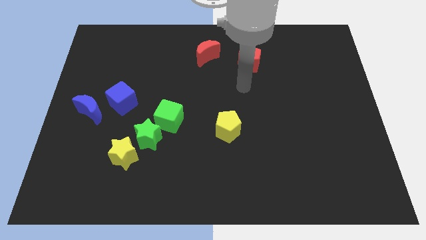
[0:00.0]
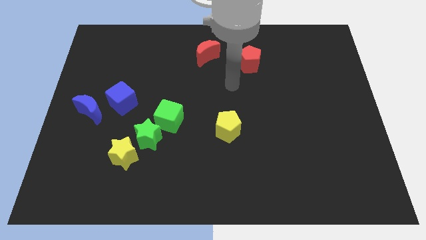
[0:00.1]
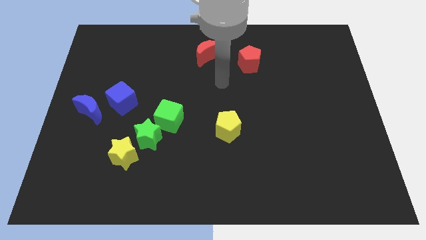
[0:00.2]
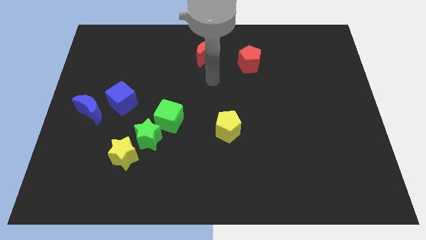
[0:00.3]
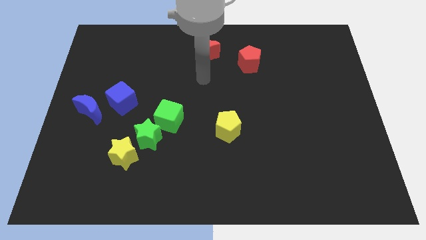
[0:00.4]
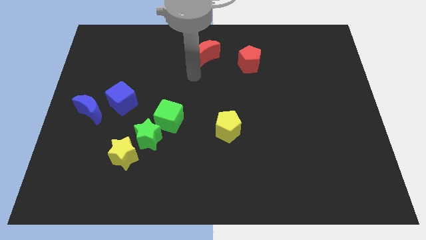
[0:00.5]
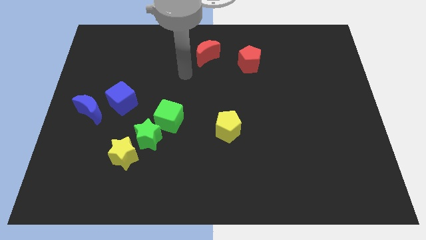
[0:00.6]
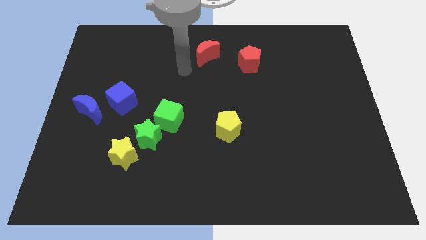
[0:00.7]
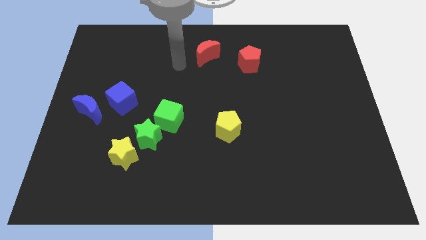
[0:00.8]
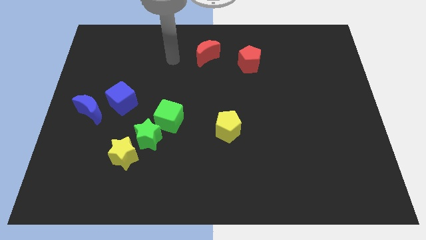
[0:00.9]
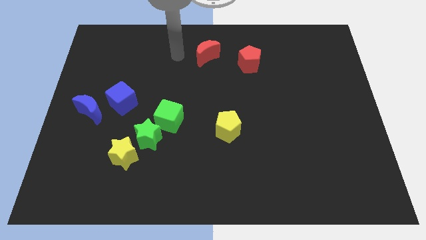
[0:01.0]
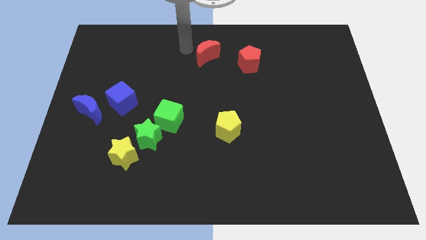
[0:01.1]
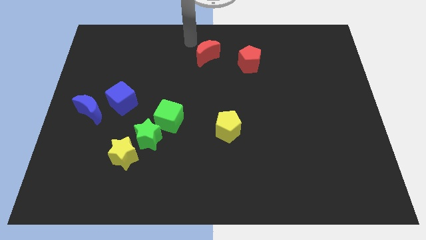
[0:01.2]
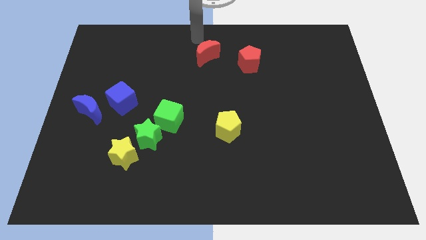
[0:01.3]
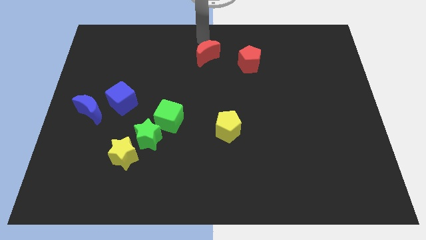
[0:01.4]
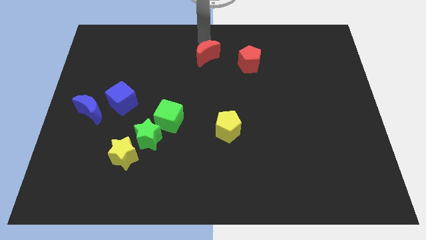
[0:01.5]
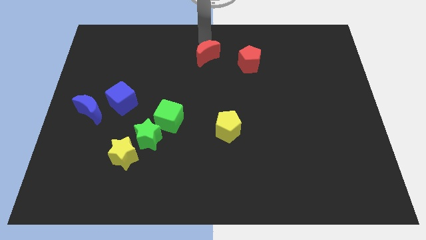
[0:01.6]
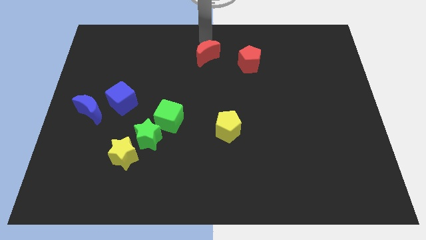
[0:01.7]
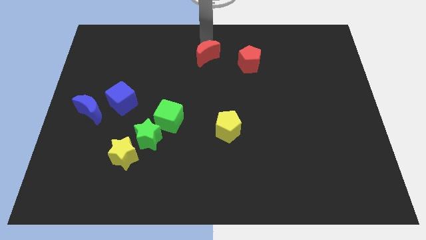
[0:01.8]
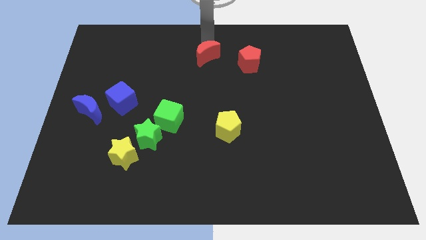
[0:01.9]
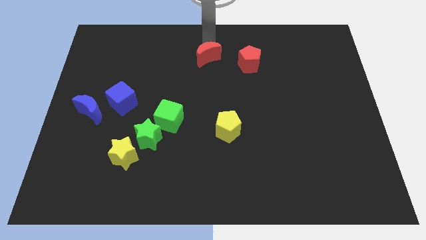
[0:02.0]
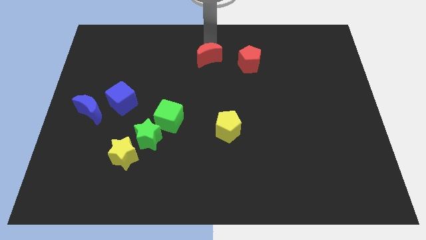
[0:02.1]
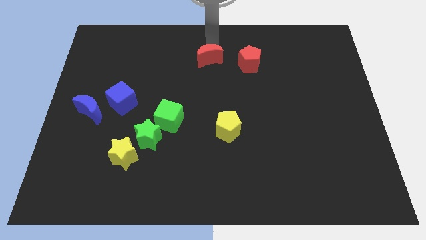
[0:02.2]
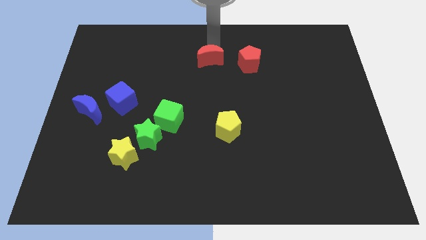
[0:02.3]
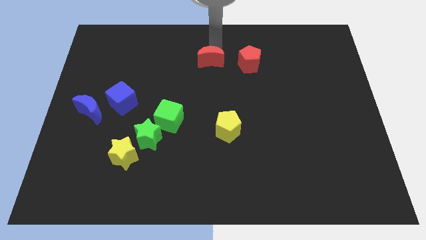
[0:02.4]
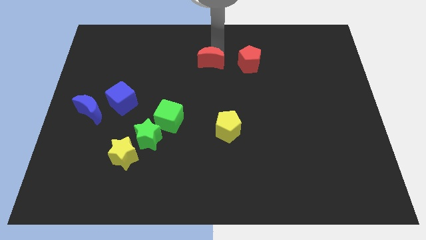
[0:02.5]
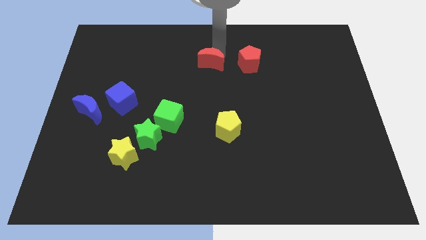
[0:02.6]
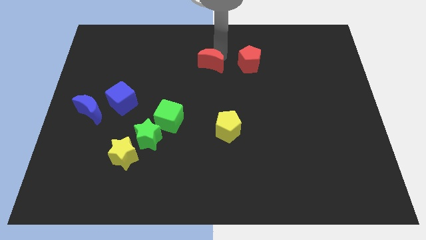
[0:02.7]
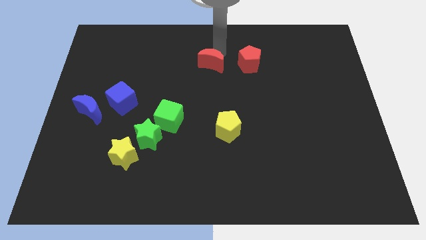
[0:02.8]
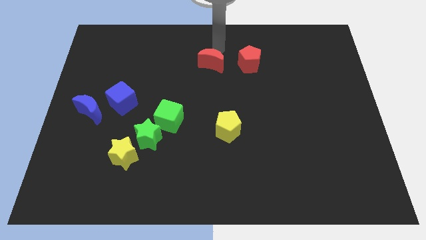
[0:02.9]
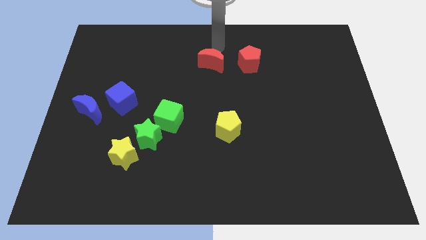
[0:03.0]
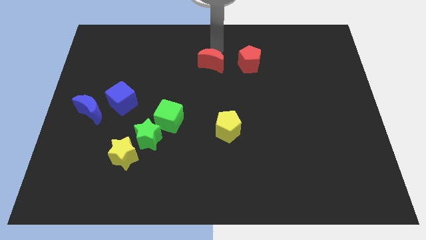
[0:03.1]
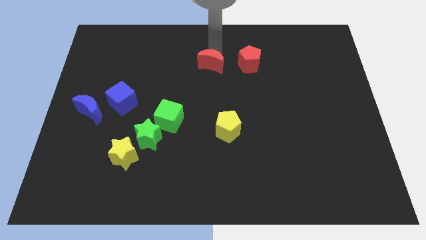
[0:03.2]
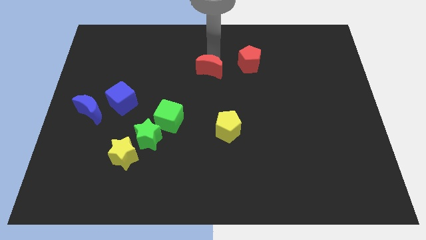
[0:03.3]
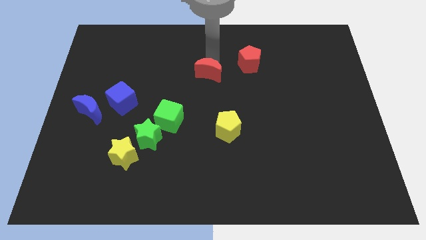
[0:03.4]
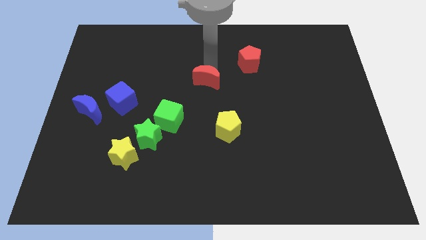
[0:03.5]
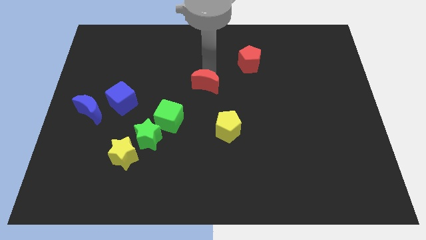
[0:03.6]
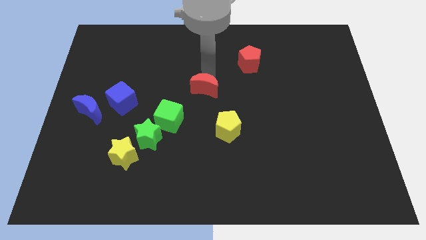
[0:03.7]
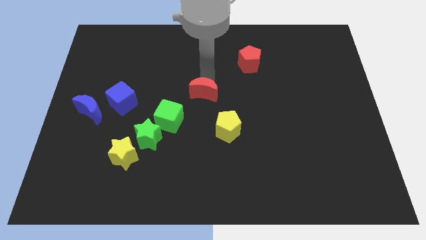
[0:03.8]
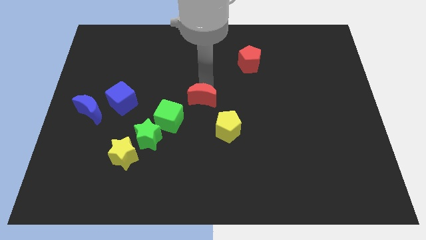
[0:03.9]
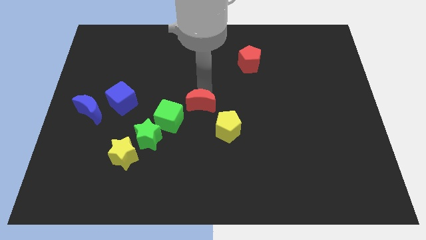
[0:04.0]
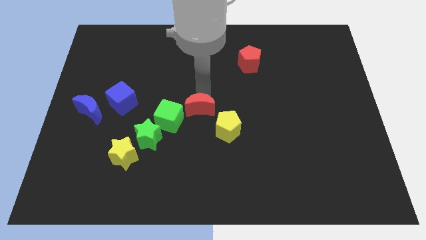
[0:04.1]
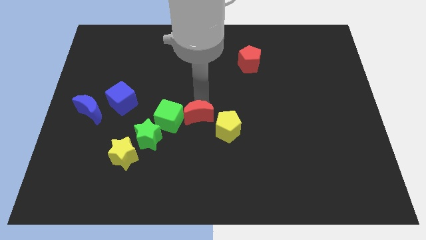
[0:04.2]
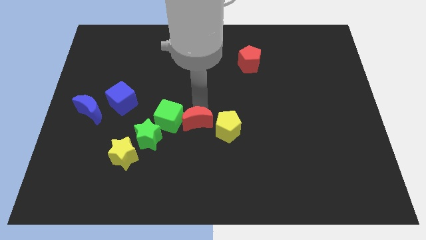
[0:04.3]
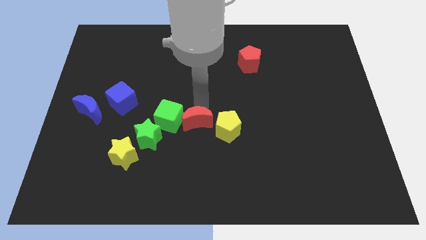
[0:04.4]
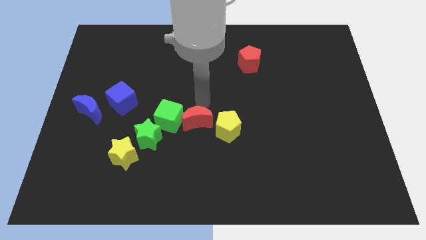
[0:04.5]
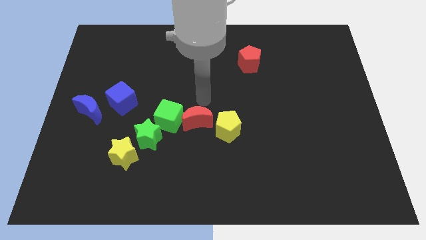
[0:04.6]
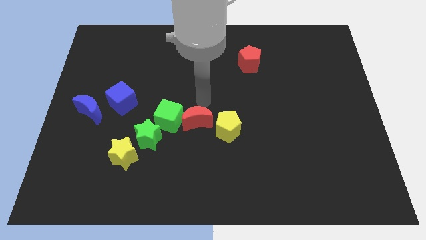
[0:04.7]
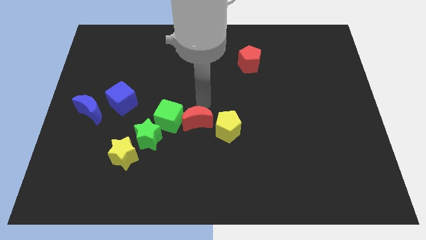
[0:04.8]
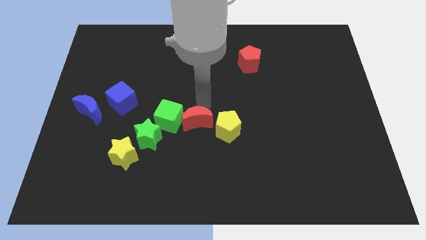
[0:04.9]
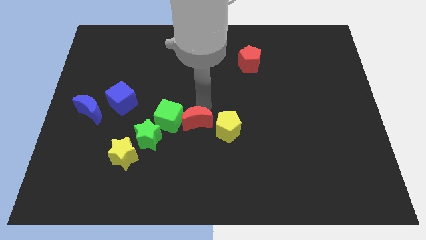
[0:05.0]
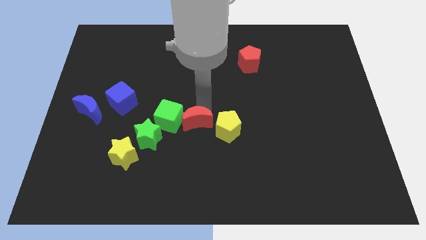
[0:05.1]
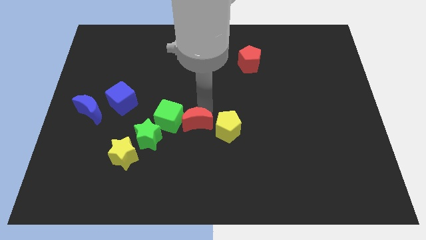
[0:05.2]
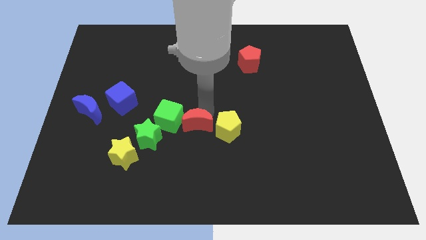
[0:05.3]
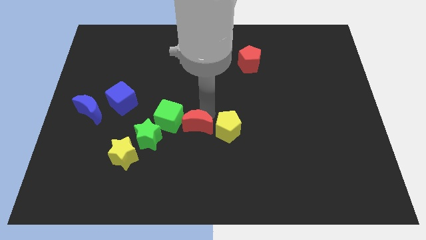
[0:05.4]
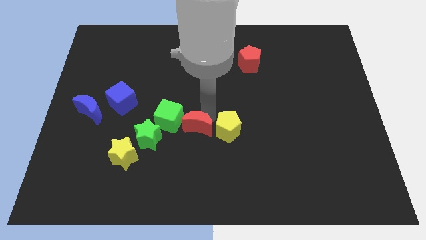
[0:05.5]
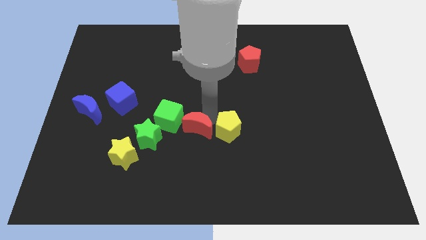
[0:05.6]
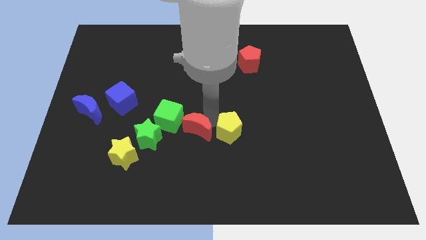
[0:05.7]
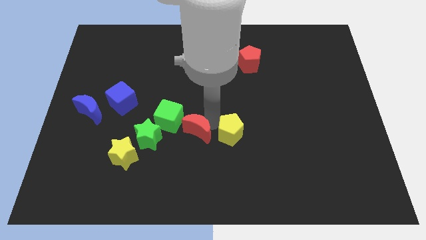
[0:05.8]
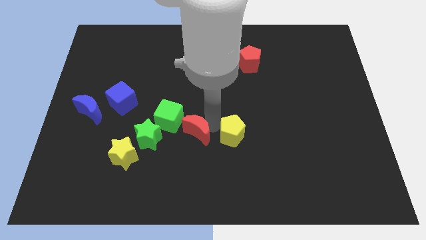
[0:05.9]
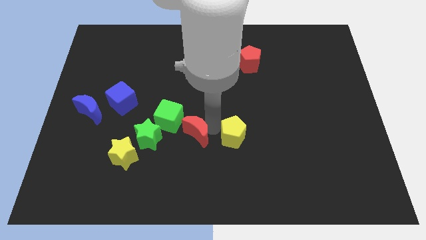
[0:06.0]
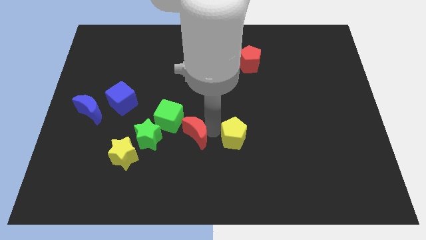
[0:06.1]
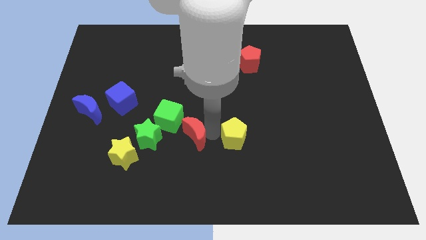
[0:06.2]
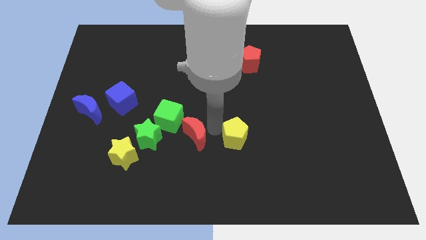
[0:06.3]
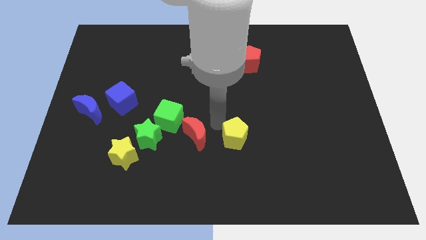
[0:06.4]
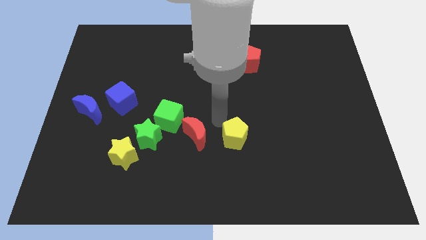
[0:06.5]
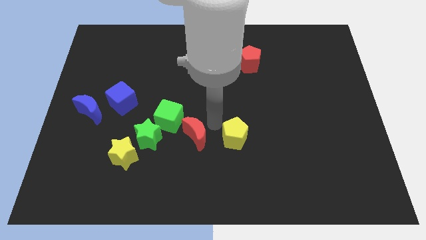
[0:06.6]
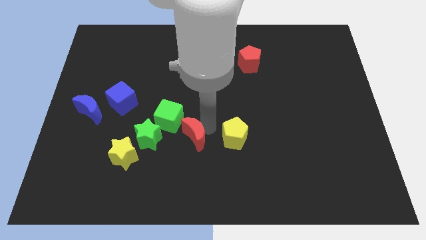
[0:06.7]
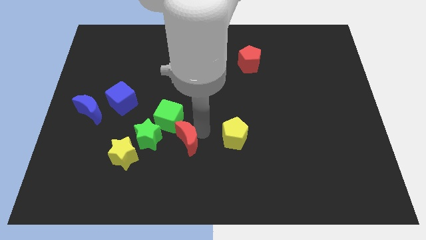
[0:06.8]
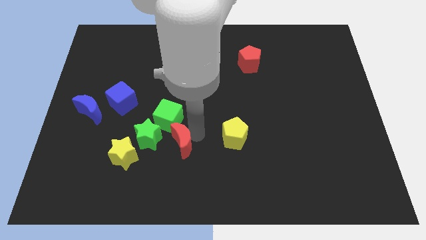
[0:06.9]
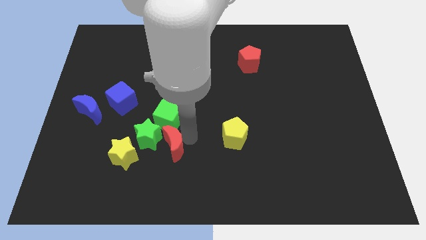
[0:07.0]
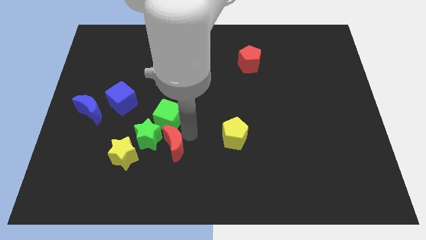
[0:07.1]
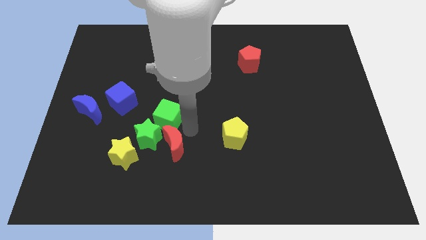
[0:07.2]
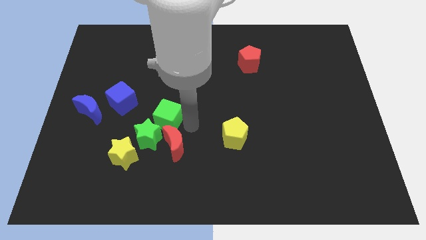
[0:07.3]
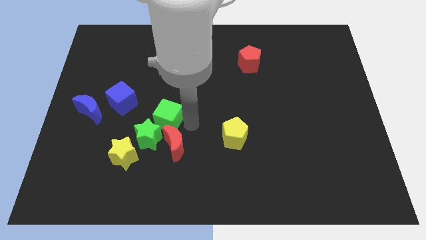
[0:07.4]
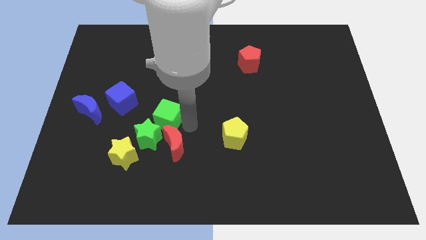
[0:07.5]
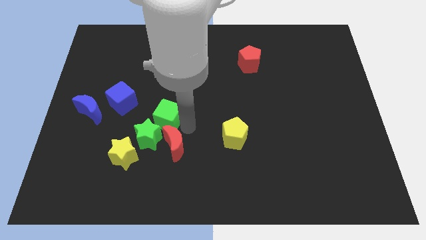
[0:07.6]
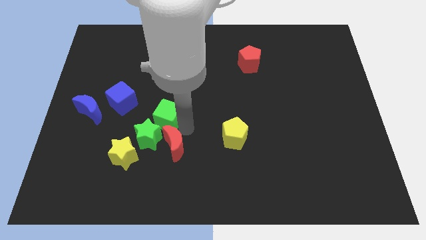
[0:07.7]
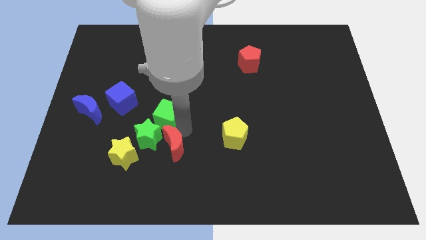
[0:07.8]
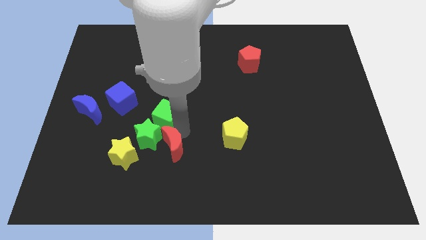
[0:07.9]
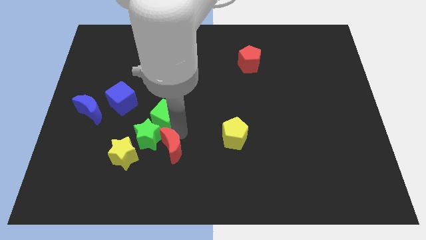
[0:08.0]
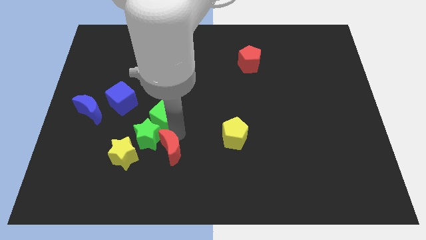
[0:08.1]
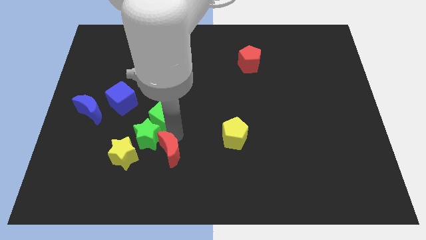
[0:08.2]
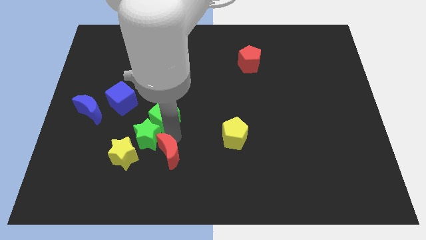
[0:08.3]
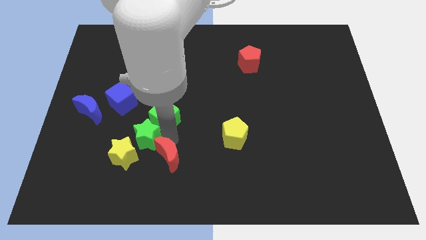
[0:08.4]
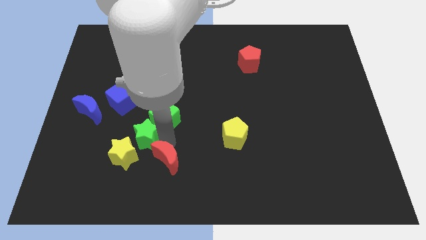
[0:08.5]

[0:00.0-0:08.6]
put the red moon below the green star
